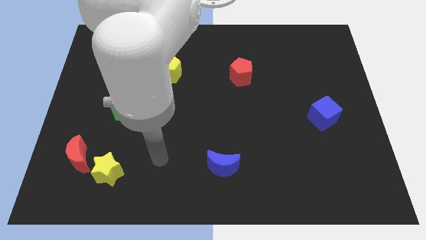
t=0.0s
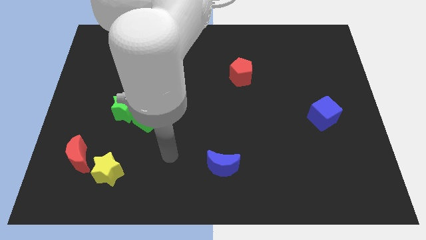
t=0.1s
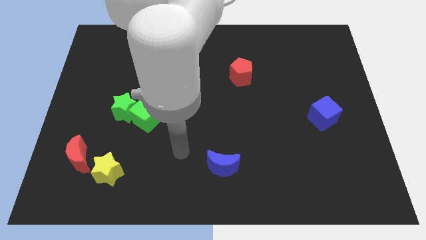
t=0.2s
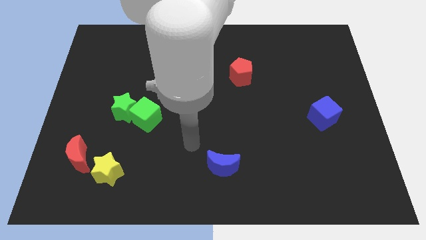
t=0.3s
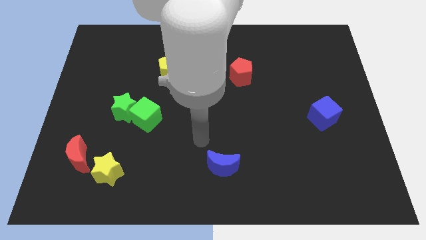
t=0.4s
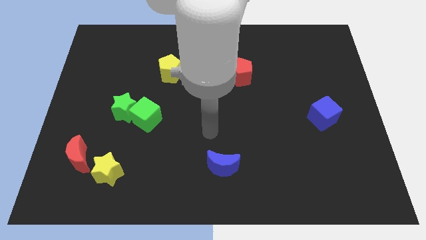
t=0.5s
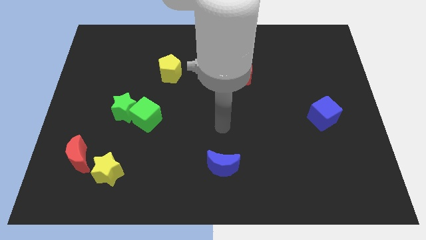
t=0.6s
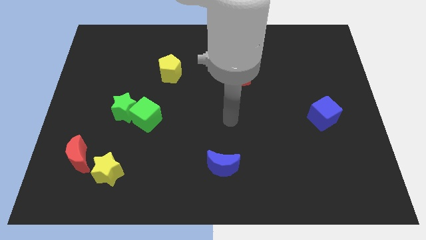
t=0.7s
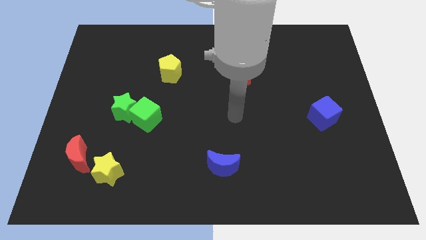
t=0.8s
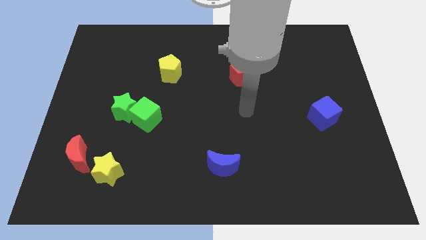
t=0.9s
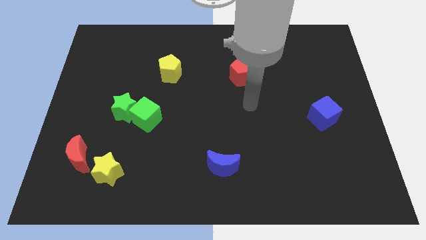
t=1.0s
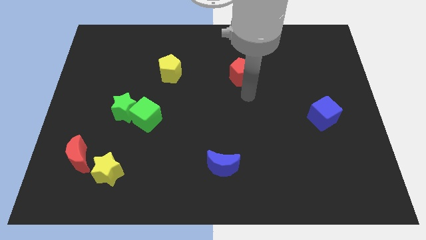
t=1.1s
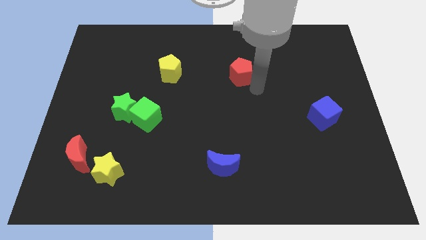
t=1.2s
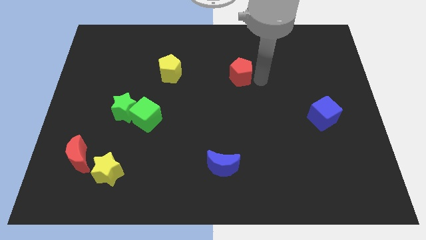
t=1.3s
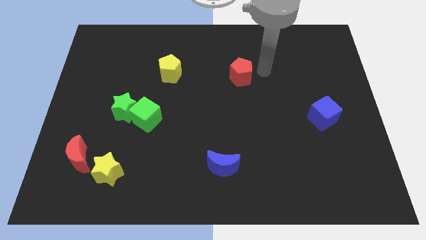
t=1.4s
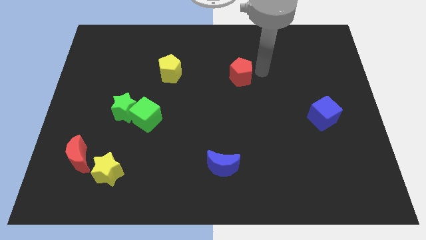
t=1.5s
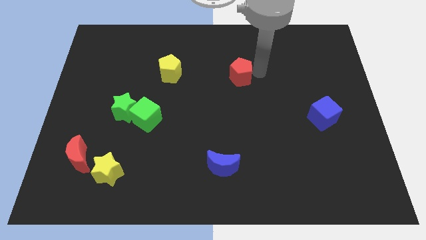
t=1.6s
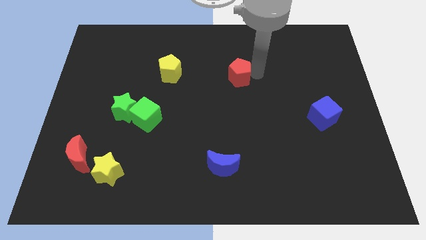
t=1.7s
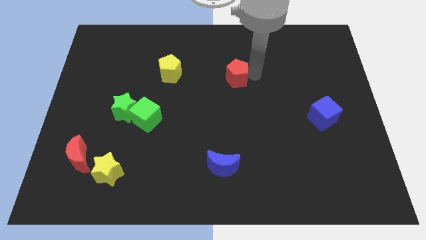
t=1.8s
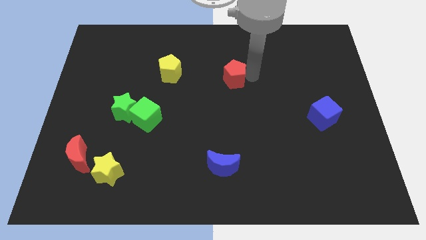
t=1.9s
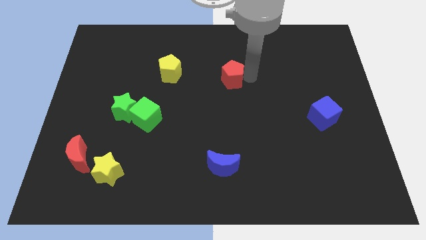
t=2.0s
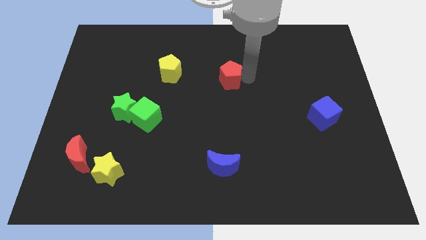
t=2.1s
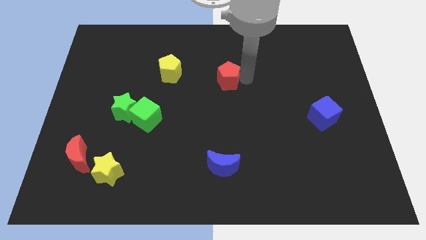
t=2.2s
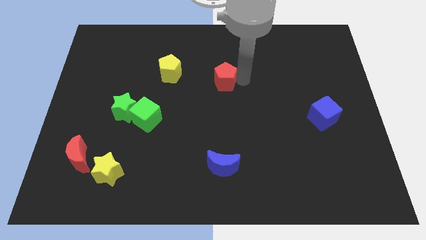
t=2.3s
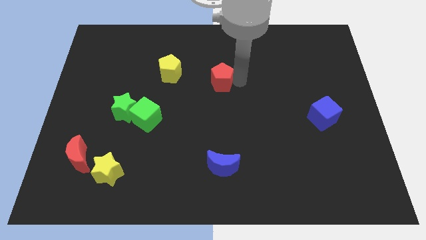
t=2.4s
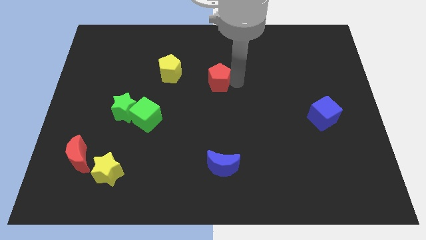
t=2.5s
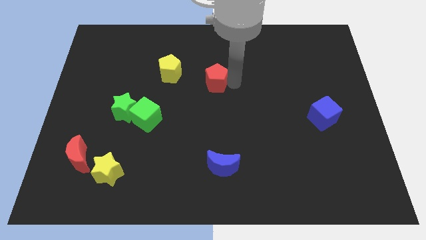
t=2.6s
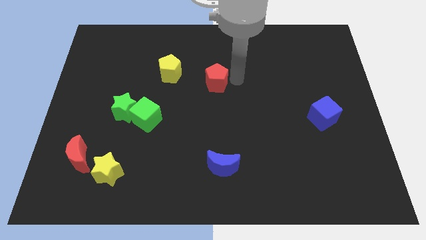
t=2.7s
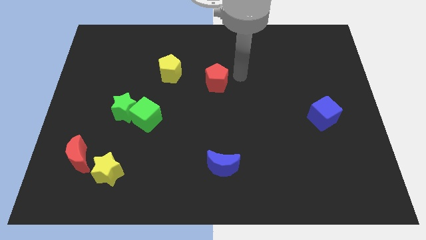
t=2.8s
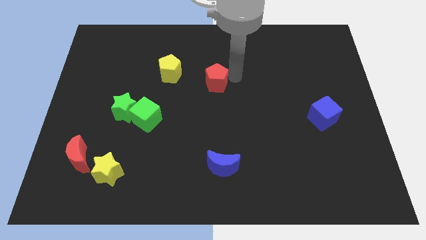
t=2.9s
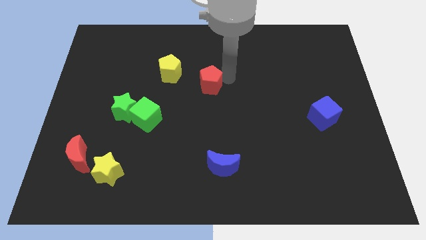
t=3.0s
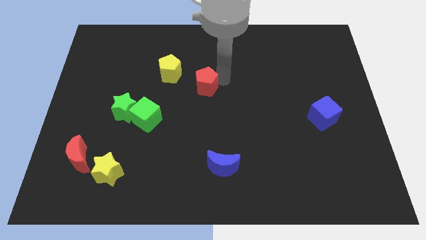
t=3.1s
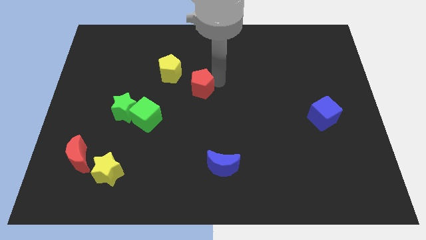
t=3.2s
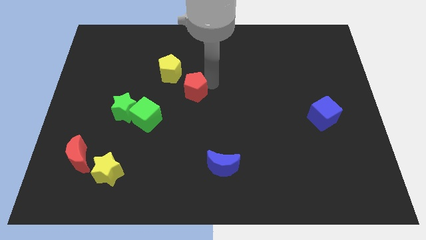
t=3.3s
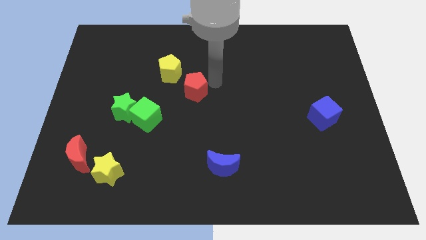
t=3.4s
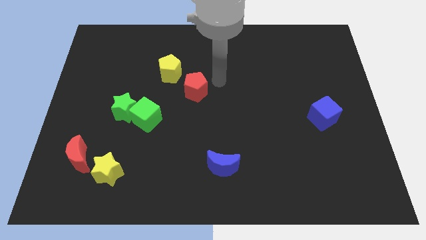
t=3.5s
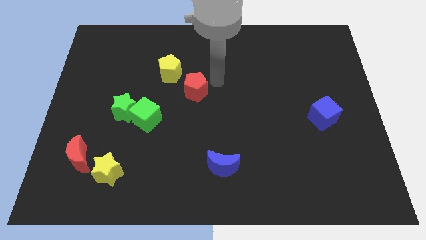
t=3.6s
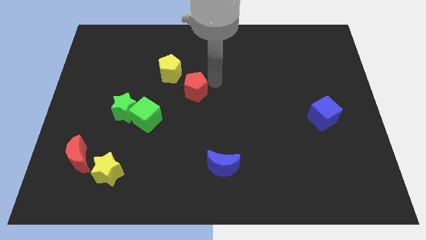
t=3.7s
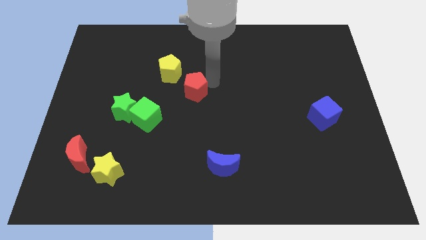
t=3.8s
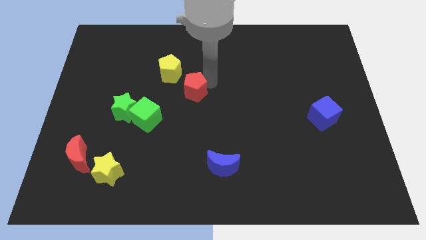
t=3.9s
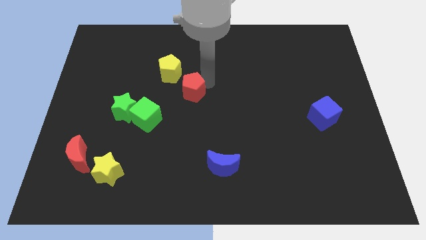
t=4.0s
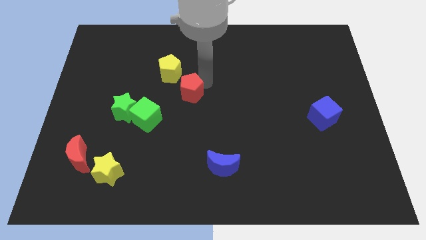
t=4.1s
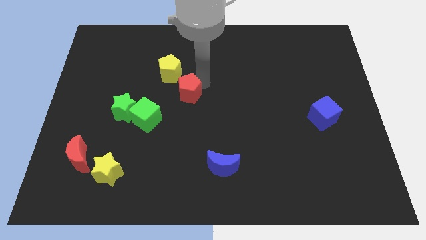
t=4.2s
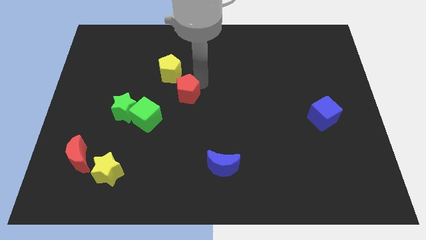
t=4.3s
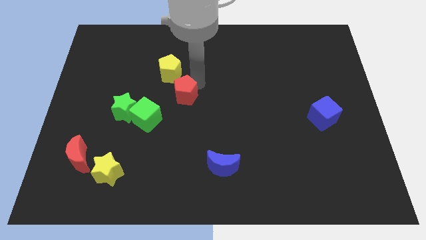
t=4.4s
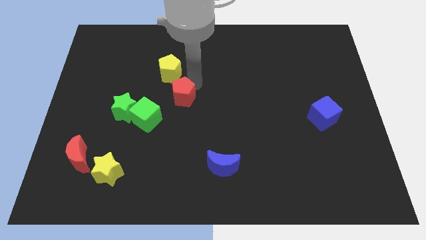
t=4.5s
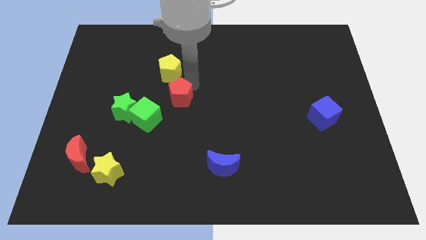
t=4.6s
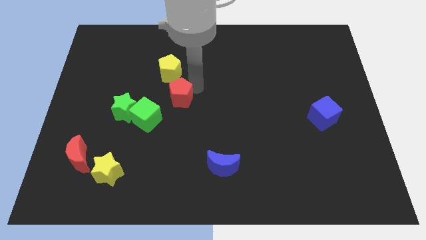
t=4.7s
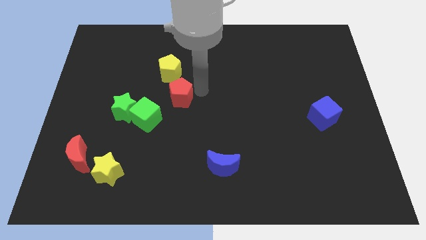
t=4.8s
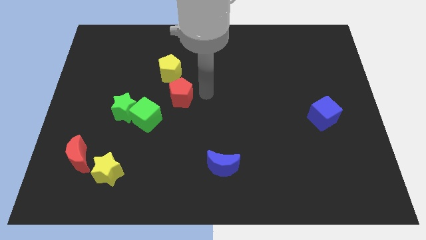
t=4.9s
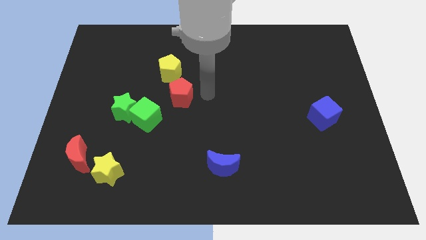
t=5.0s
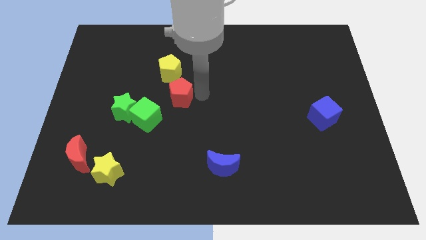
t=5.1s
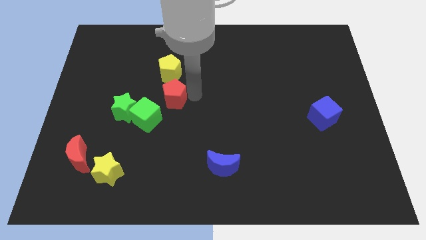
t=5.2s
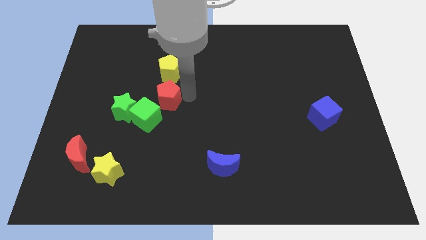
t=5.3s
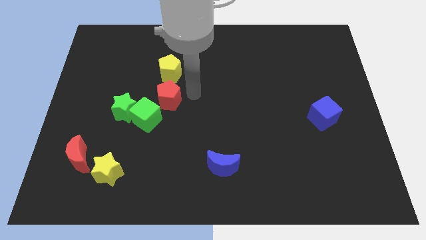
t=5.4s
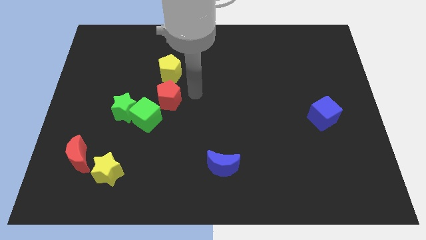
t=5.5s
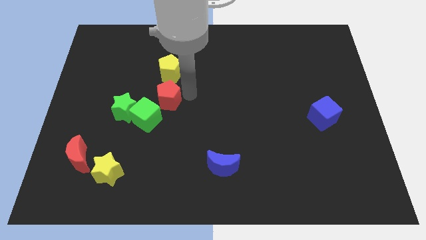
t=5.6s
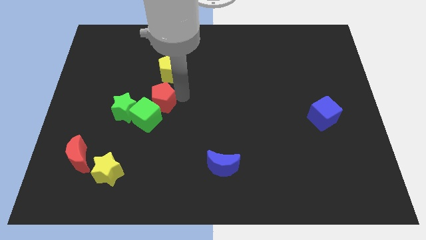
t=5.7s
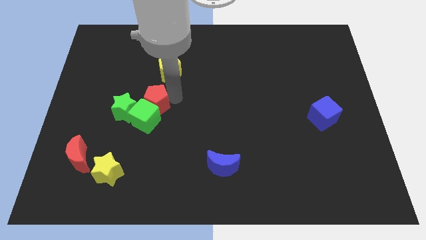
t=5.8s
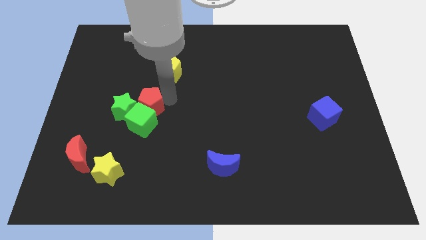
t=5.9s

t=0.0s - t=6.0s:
put the red pentagon next to the green star

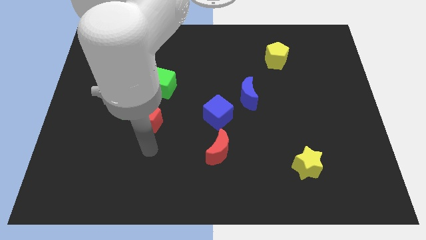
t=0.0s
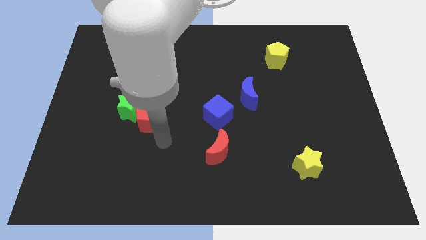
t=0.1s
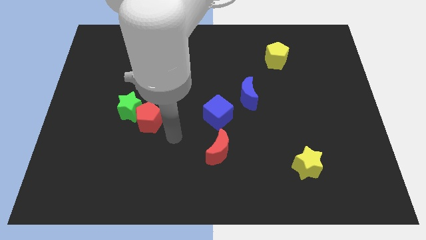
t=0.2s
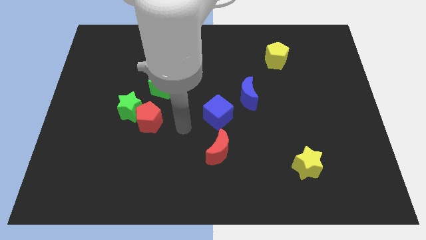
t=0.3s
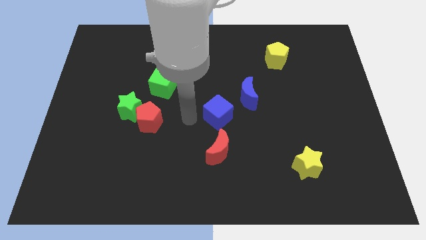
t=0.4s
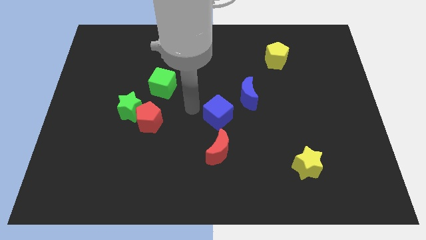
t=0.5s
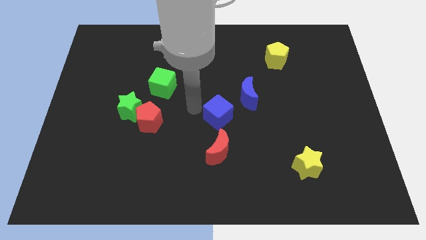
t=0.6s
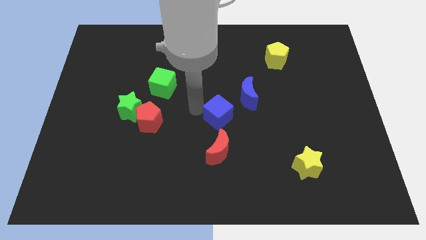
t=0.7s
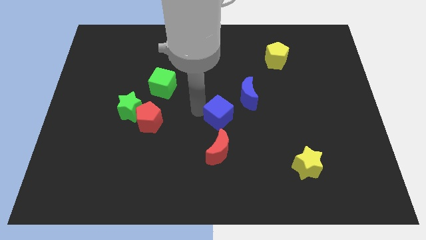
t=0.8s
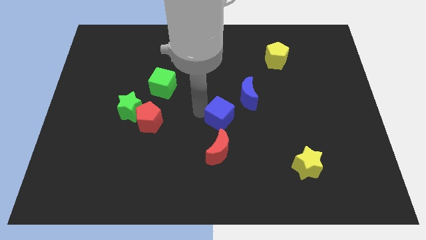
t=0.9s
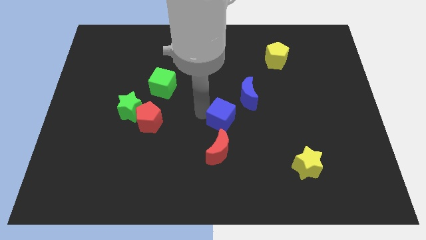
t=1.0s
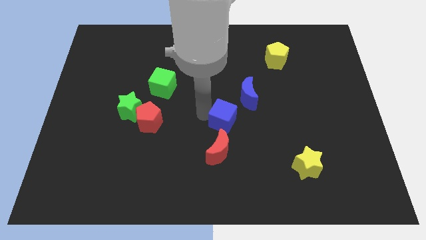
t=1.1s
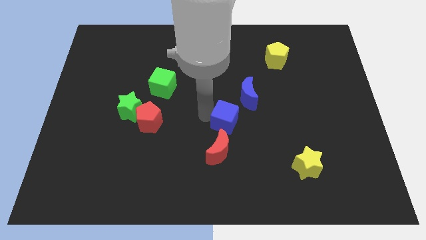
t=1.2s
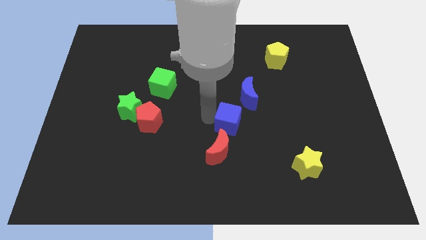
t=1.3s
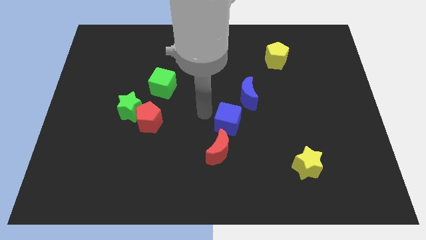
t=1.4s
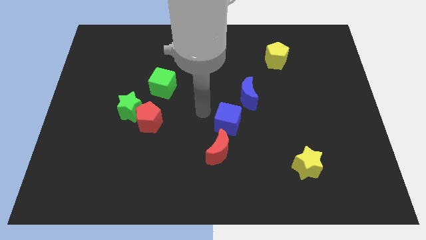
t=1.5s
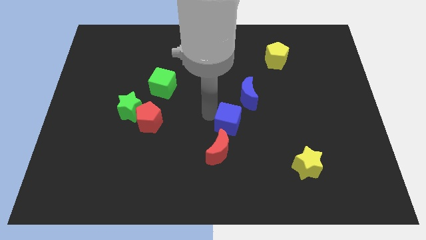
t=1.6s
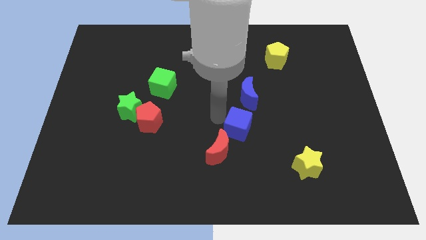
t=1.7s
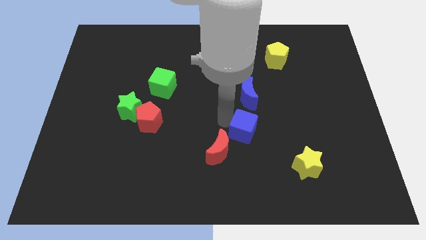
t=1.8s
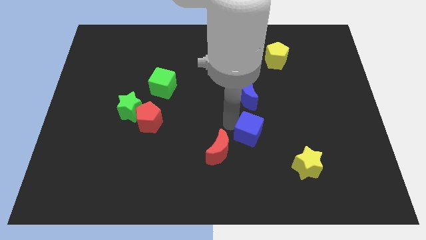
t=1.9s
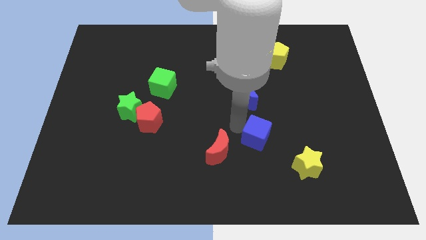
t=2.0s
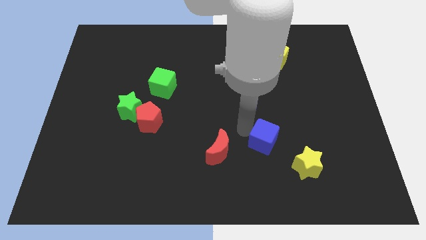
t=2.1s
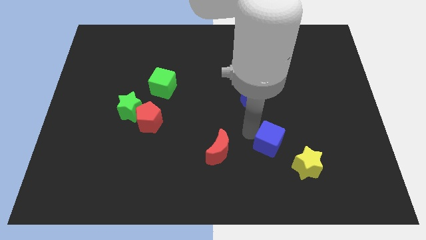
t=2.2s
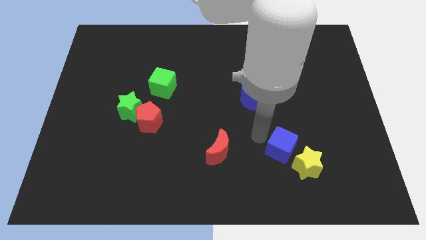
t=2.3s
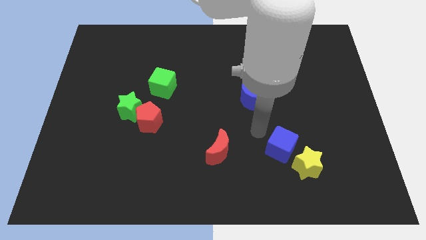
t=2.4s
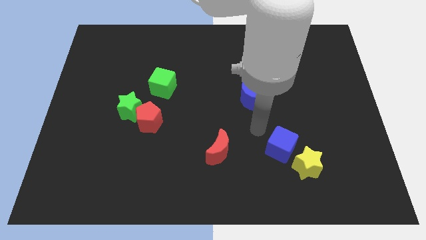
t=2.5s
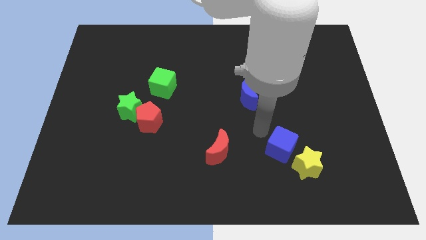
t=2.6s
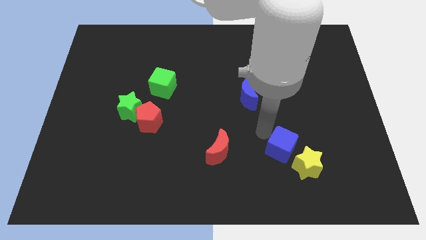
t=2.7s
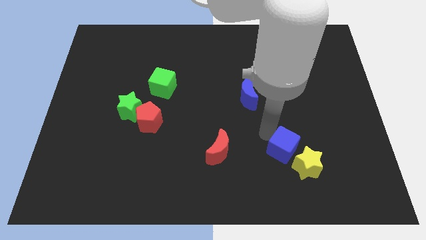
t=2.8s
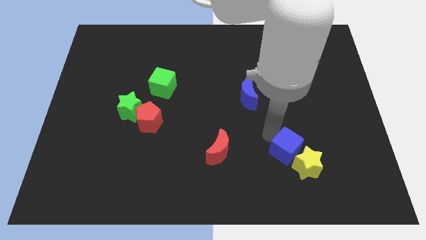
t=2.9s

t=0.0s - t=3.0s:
slide the blue cube towards the yellow star
